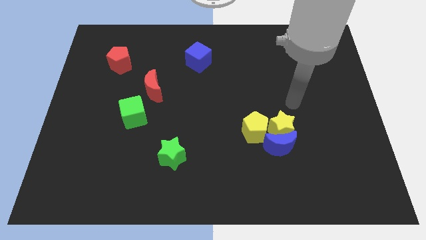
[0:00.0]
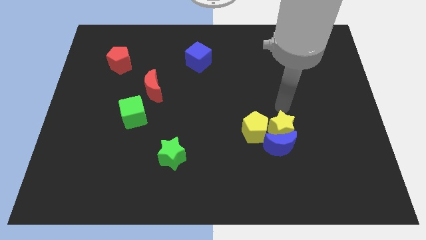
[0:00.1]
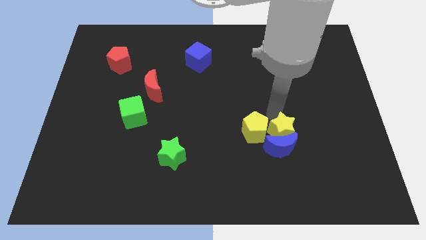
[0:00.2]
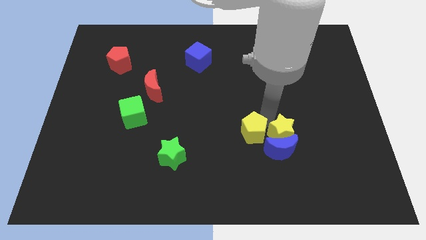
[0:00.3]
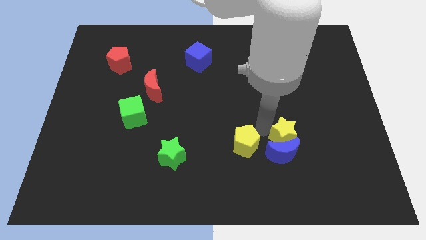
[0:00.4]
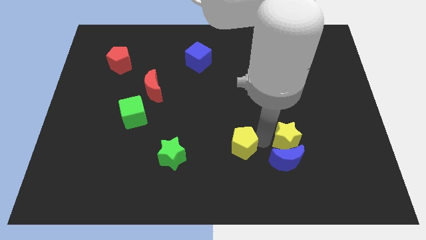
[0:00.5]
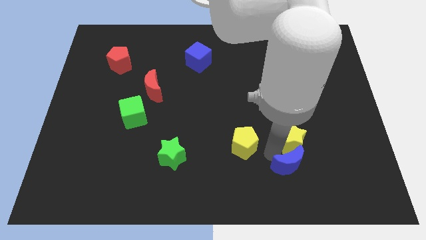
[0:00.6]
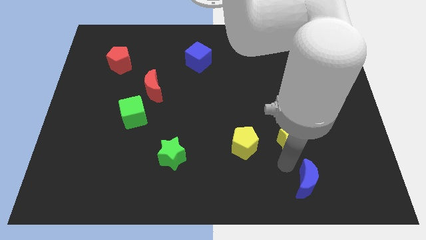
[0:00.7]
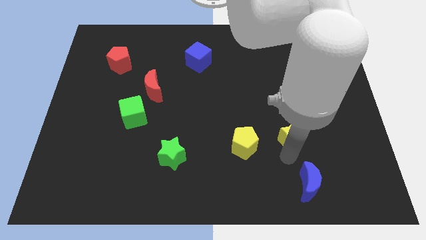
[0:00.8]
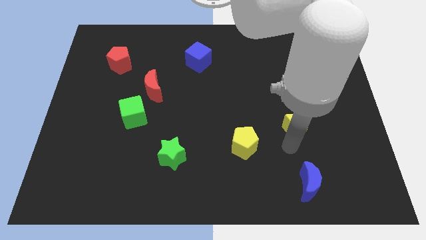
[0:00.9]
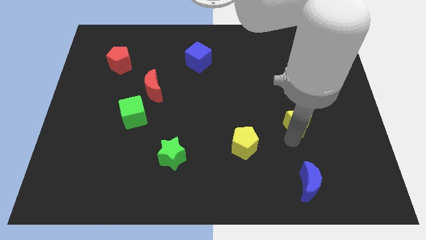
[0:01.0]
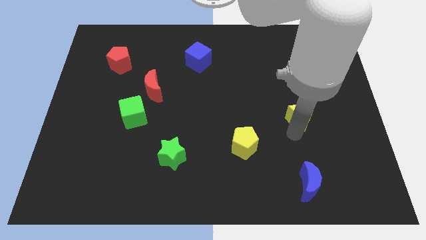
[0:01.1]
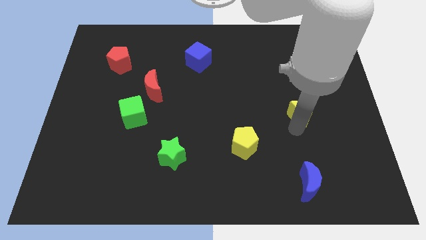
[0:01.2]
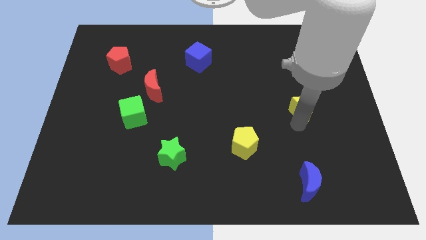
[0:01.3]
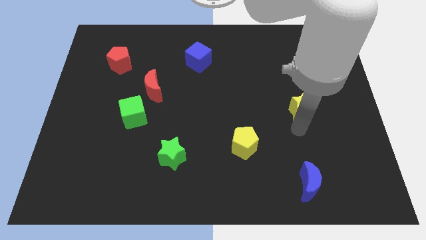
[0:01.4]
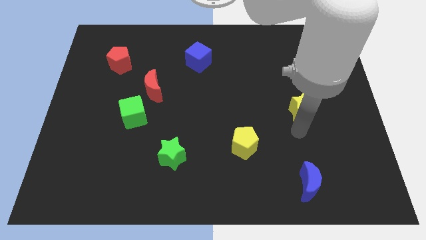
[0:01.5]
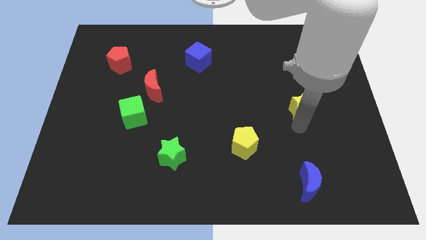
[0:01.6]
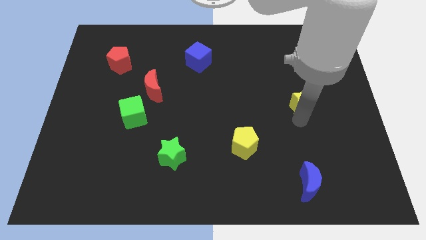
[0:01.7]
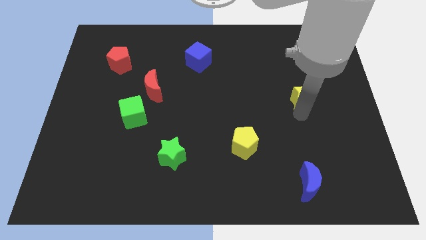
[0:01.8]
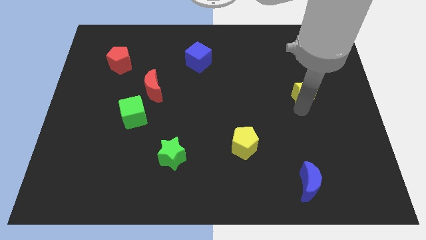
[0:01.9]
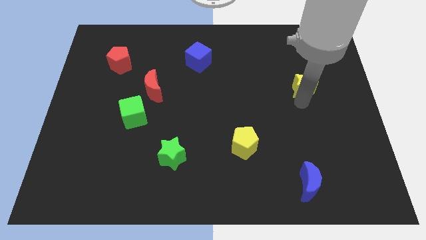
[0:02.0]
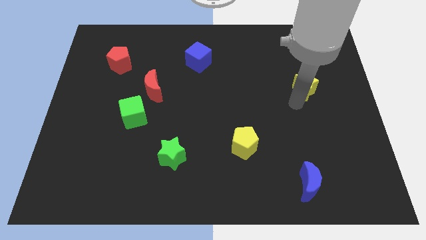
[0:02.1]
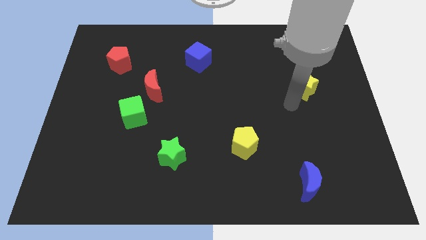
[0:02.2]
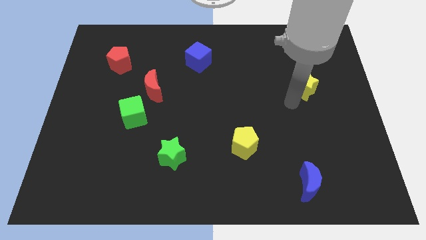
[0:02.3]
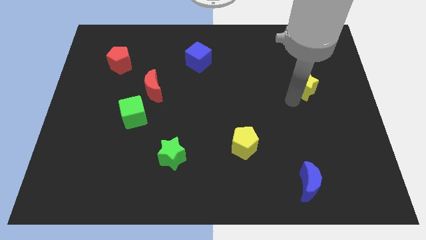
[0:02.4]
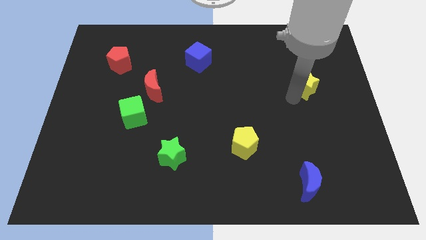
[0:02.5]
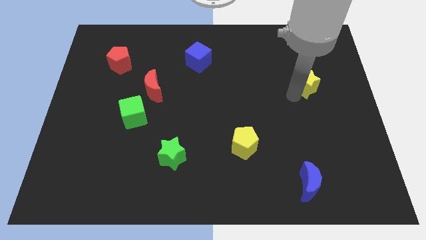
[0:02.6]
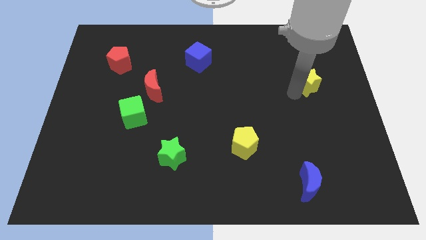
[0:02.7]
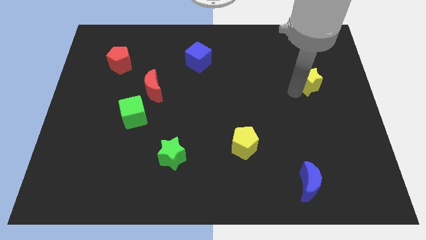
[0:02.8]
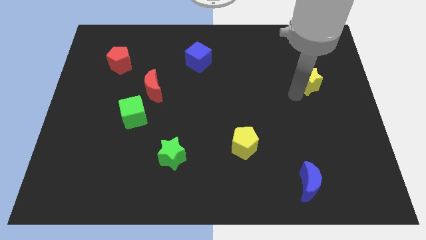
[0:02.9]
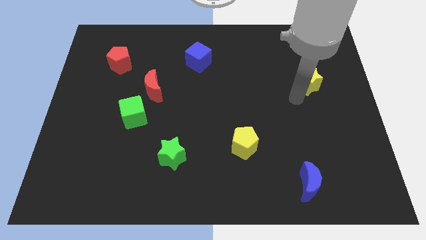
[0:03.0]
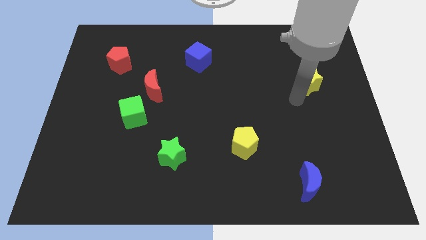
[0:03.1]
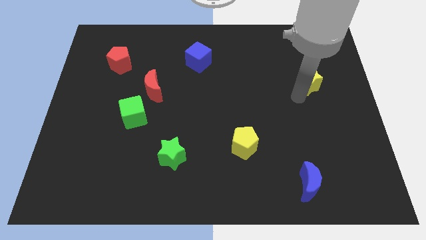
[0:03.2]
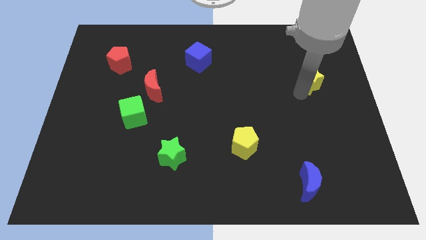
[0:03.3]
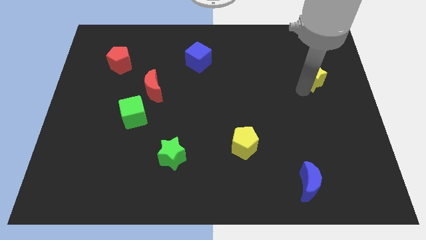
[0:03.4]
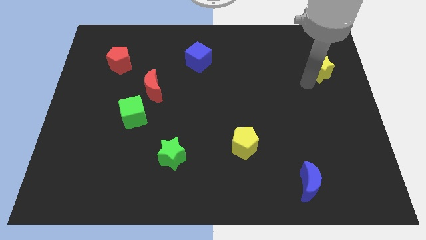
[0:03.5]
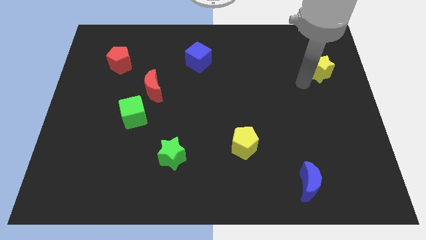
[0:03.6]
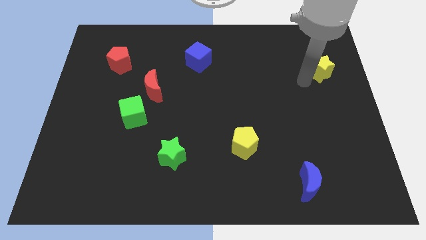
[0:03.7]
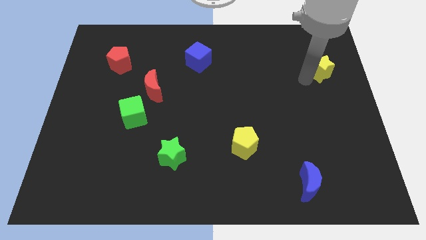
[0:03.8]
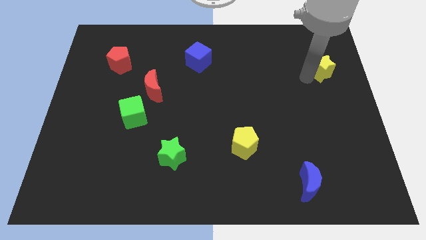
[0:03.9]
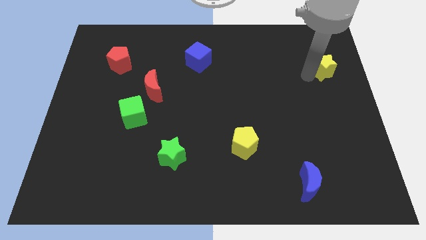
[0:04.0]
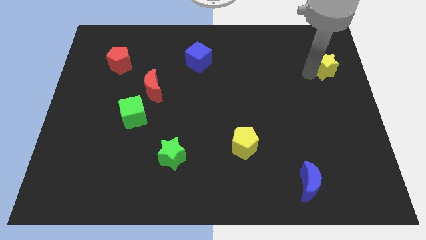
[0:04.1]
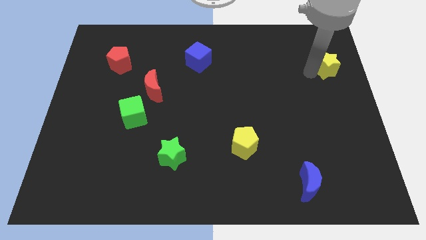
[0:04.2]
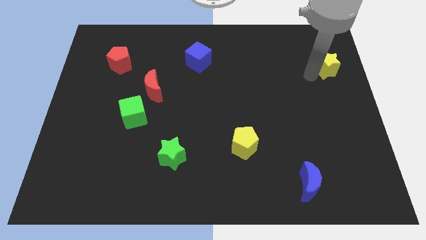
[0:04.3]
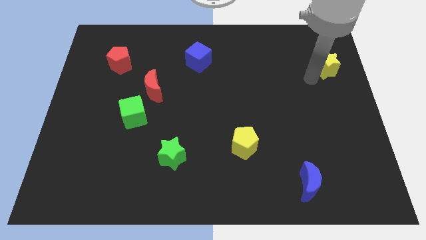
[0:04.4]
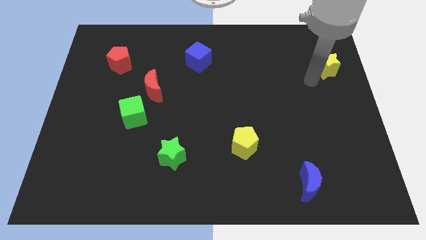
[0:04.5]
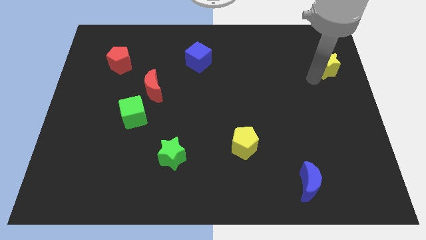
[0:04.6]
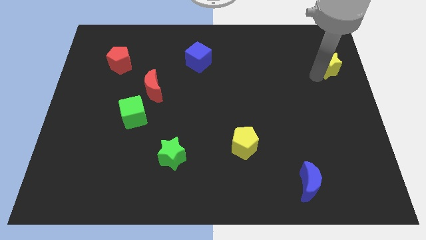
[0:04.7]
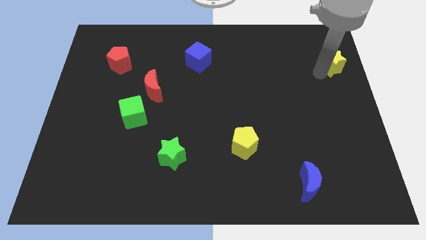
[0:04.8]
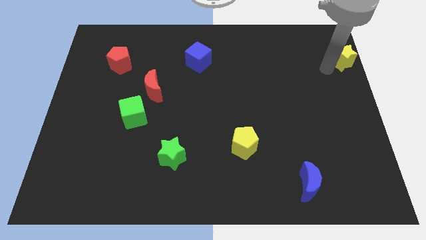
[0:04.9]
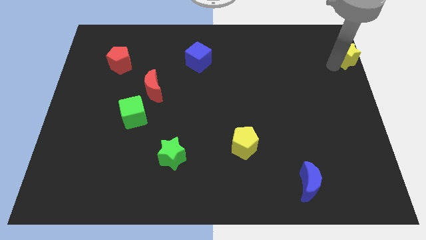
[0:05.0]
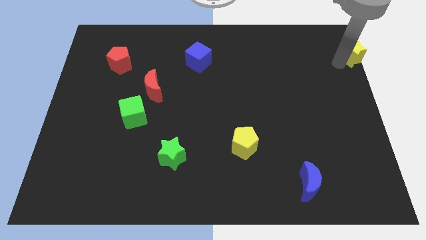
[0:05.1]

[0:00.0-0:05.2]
move the yellow star to the top right of the board

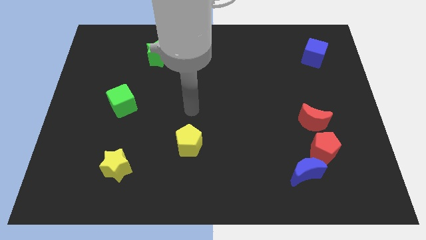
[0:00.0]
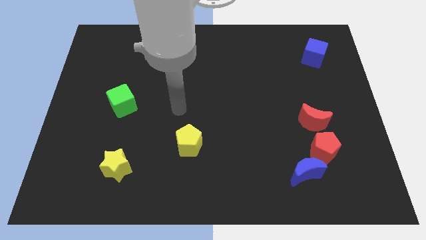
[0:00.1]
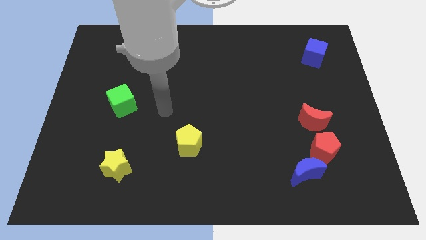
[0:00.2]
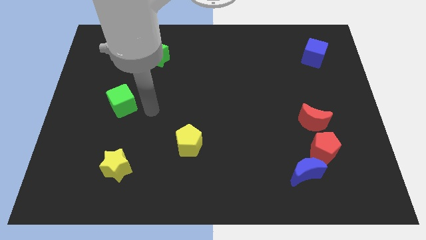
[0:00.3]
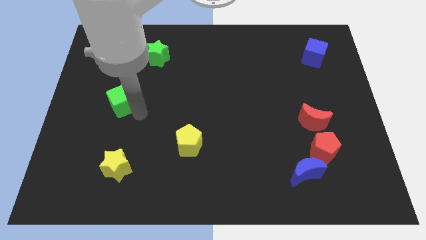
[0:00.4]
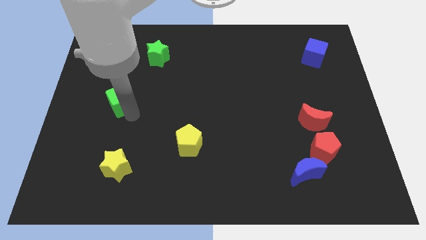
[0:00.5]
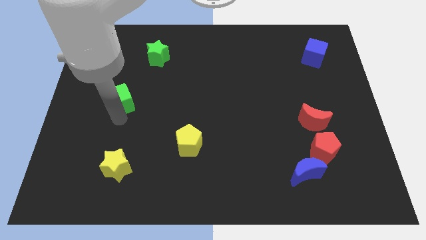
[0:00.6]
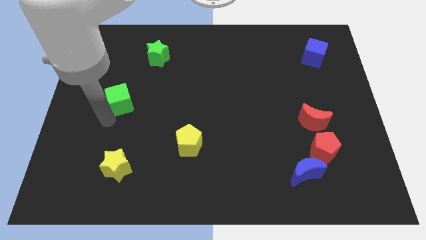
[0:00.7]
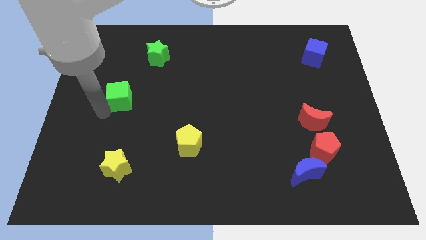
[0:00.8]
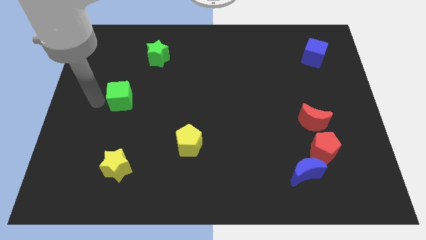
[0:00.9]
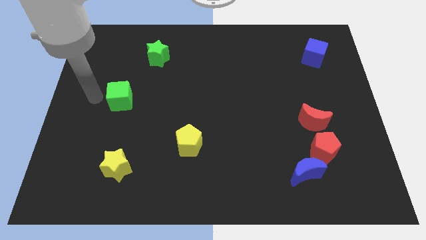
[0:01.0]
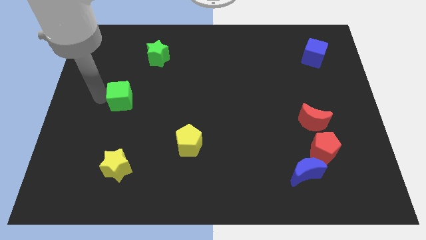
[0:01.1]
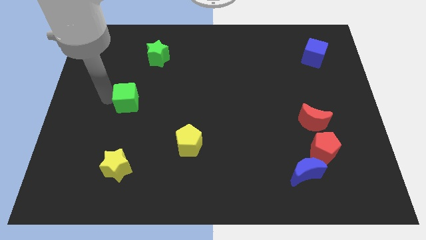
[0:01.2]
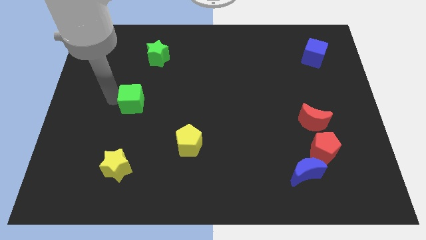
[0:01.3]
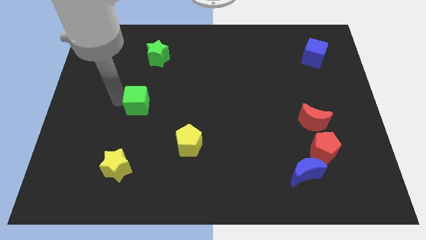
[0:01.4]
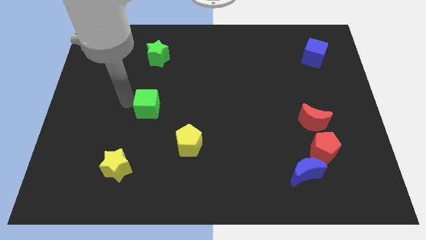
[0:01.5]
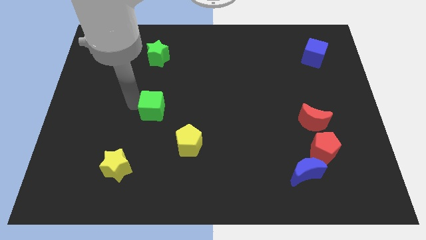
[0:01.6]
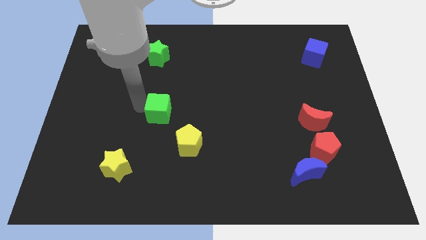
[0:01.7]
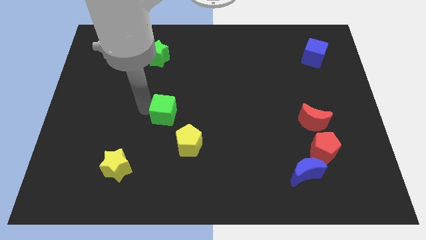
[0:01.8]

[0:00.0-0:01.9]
put the green cube to the middle of the board
